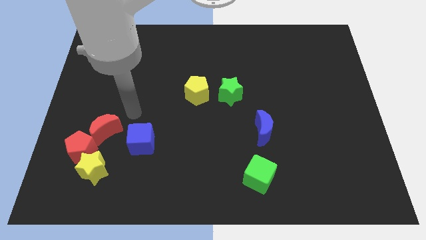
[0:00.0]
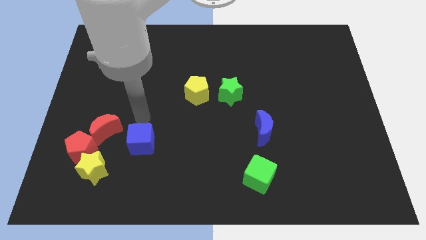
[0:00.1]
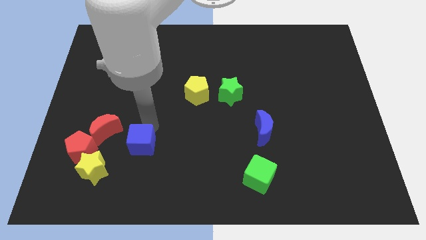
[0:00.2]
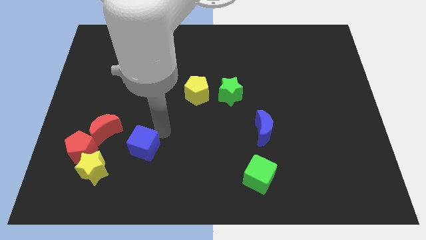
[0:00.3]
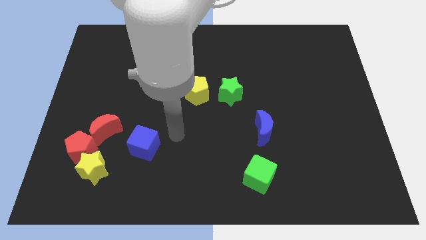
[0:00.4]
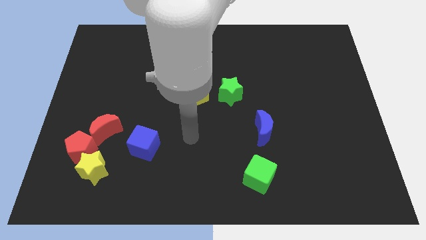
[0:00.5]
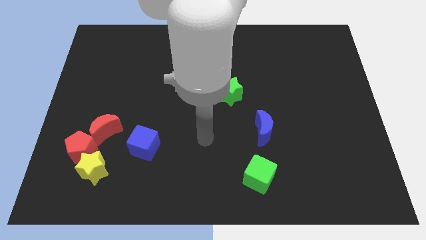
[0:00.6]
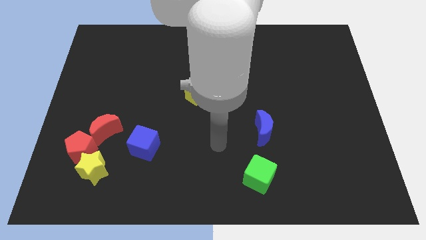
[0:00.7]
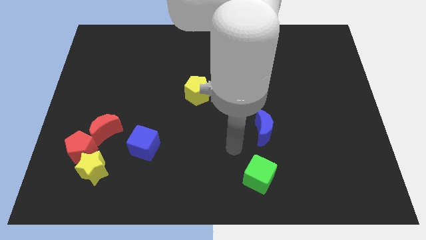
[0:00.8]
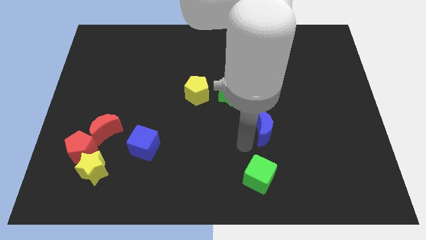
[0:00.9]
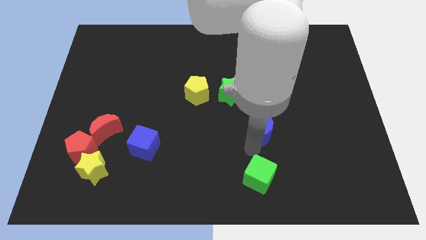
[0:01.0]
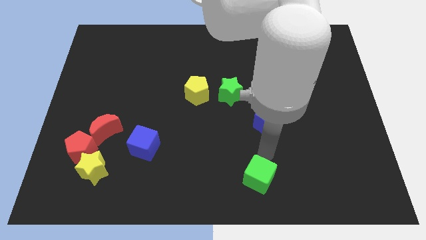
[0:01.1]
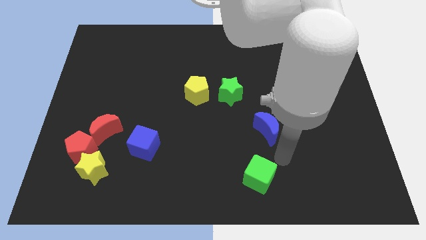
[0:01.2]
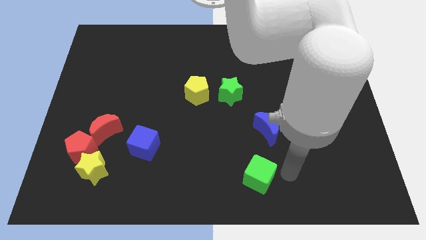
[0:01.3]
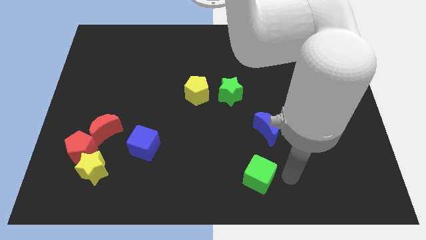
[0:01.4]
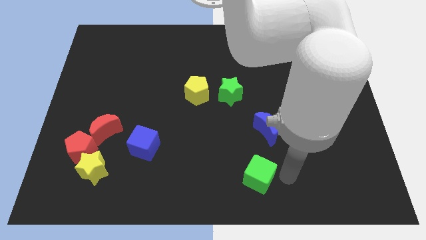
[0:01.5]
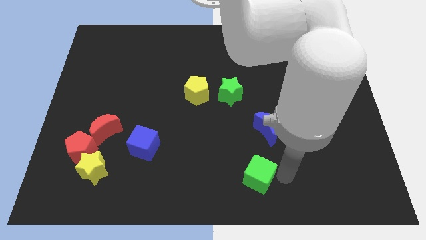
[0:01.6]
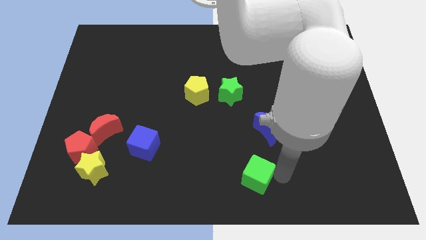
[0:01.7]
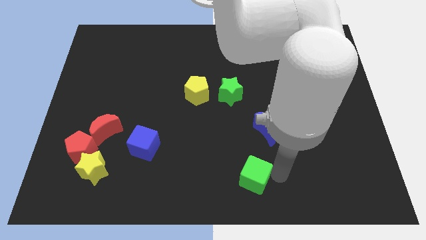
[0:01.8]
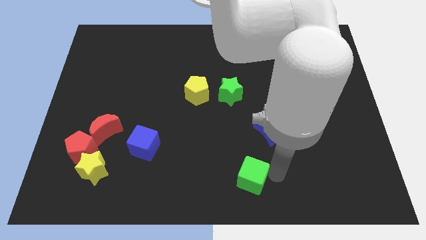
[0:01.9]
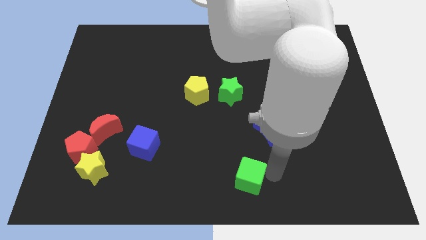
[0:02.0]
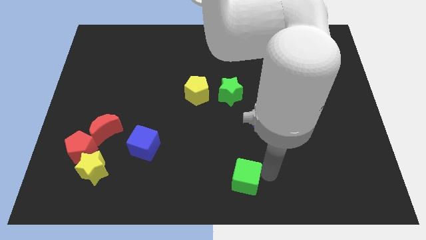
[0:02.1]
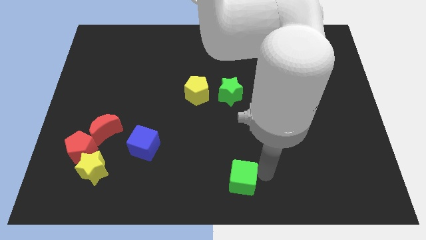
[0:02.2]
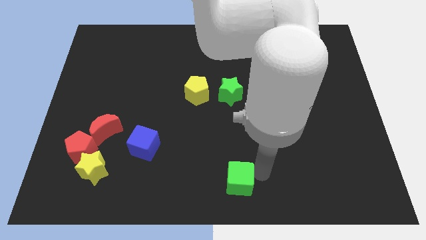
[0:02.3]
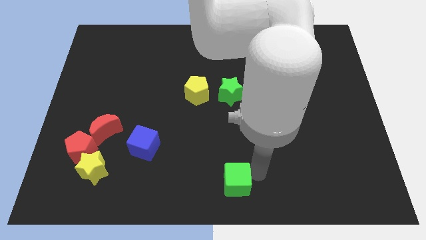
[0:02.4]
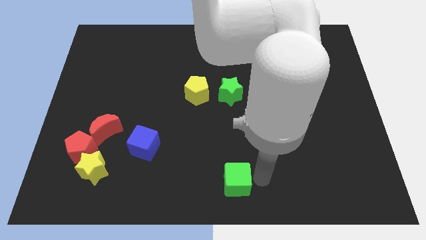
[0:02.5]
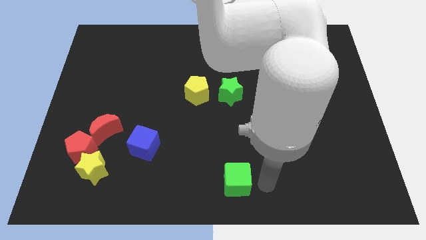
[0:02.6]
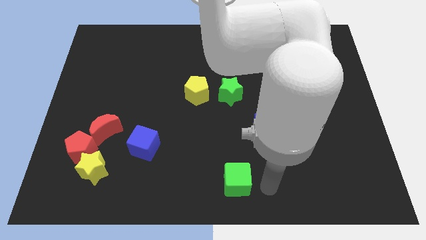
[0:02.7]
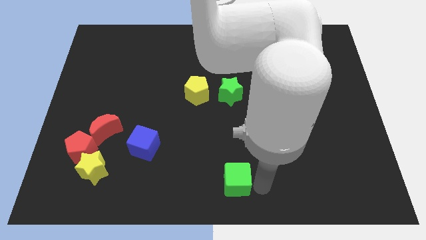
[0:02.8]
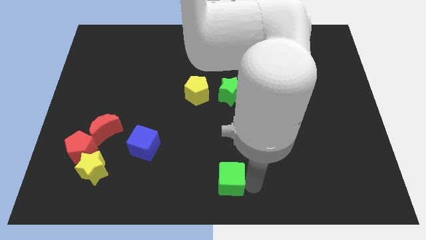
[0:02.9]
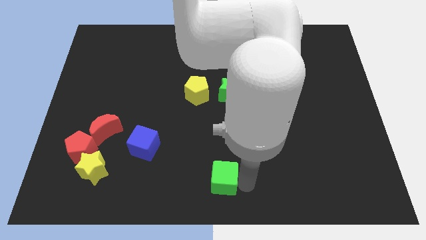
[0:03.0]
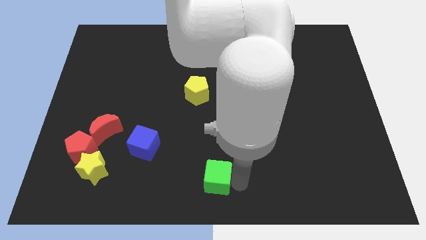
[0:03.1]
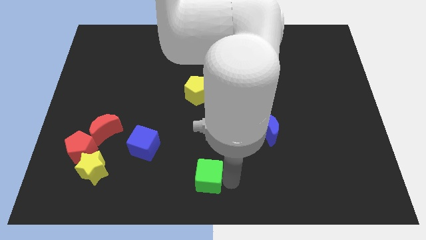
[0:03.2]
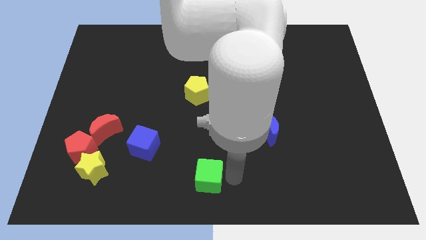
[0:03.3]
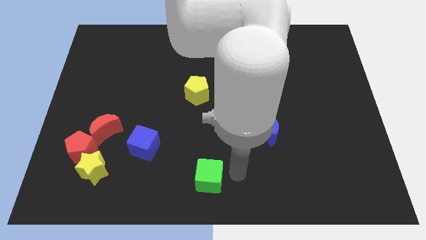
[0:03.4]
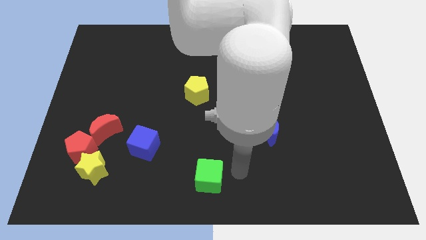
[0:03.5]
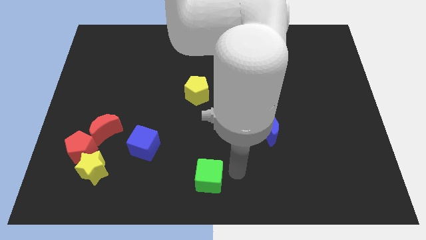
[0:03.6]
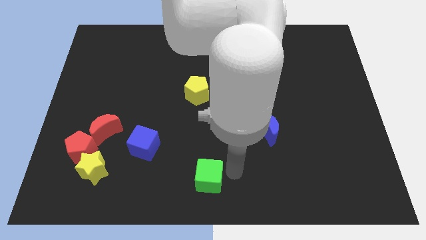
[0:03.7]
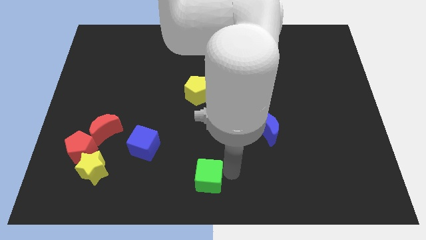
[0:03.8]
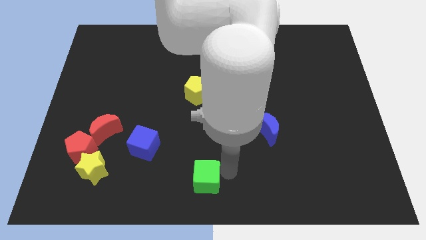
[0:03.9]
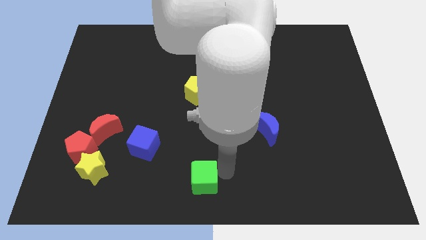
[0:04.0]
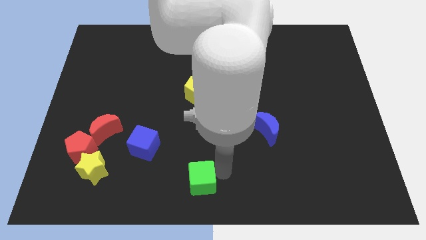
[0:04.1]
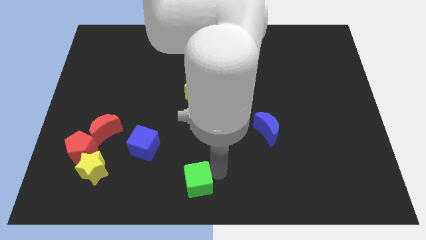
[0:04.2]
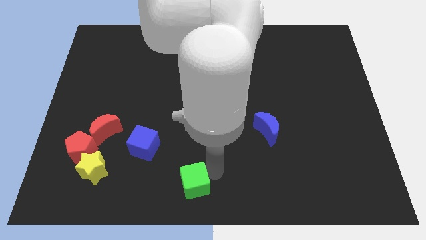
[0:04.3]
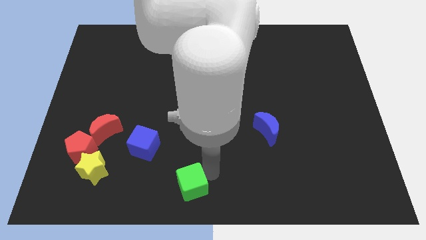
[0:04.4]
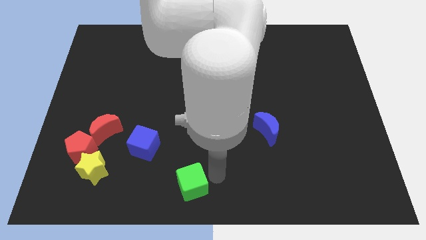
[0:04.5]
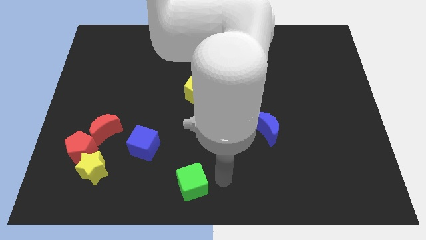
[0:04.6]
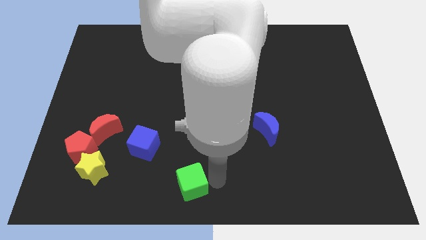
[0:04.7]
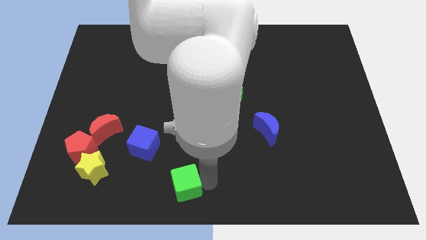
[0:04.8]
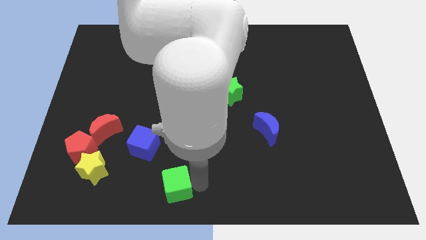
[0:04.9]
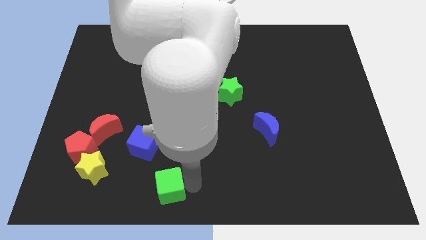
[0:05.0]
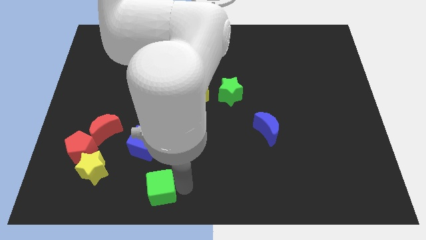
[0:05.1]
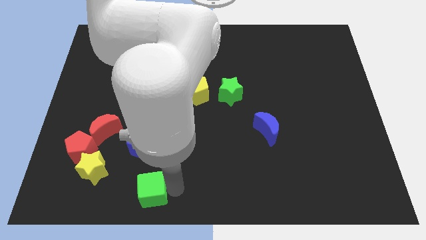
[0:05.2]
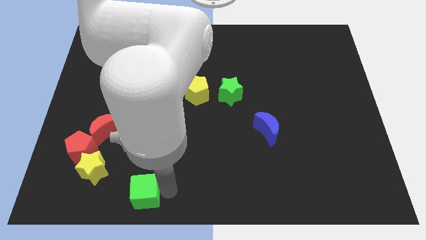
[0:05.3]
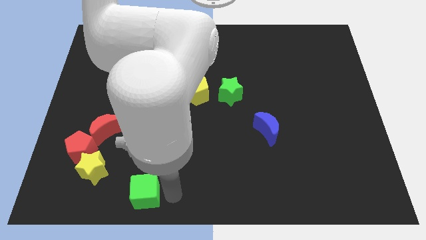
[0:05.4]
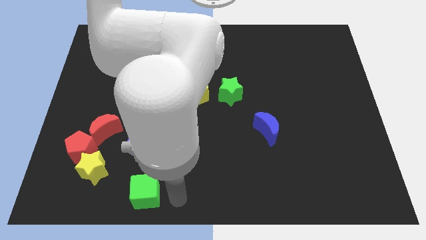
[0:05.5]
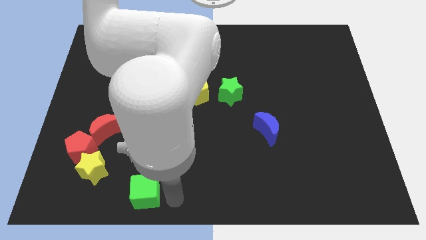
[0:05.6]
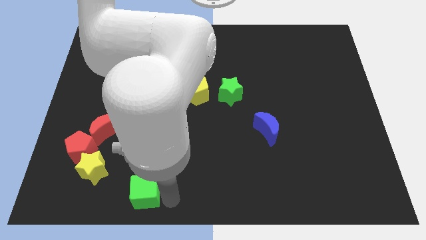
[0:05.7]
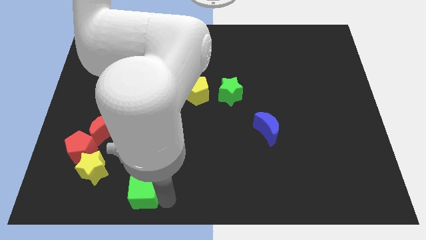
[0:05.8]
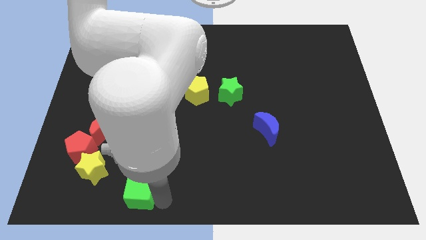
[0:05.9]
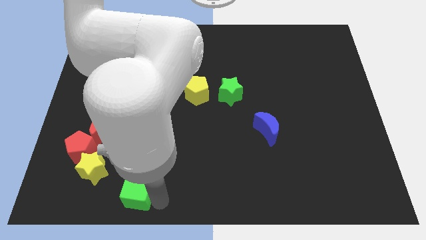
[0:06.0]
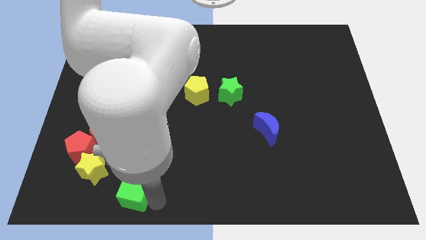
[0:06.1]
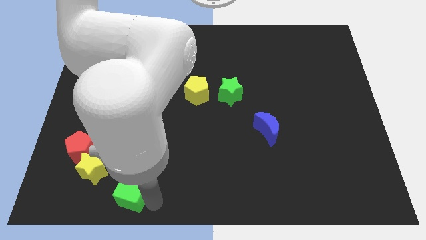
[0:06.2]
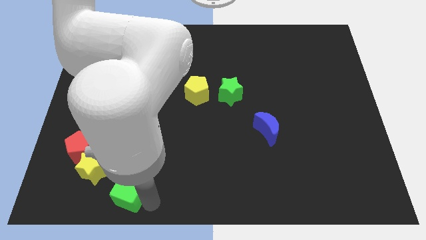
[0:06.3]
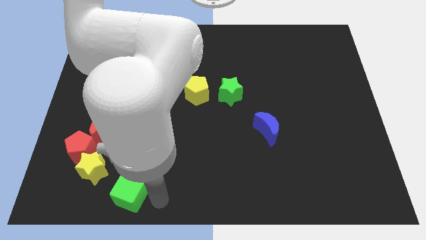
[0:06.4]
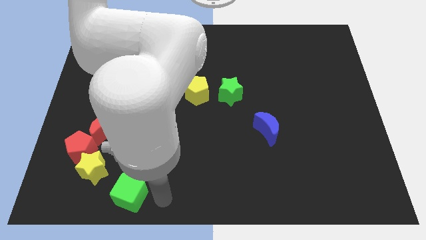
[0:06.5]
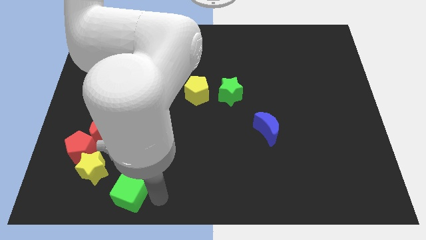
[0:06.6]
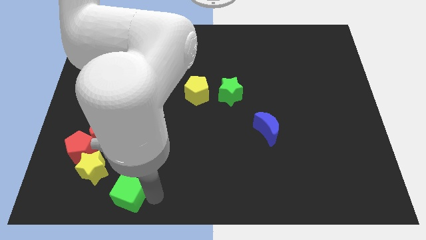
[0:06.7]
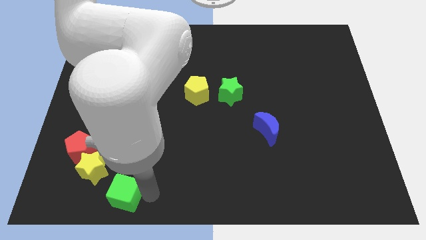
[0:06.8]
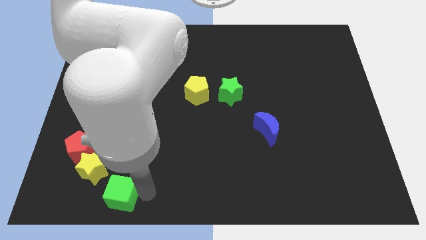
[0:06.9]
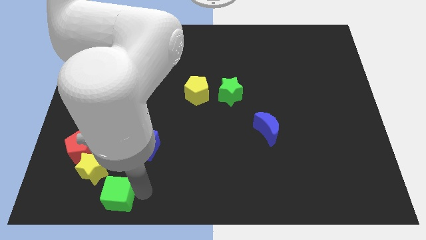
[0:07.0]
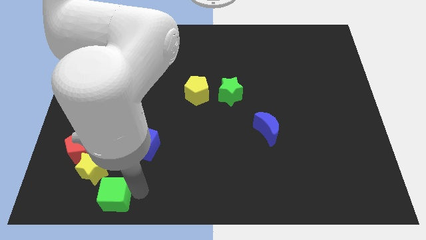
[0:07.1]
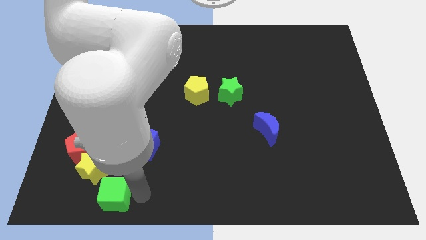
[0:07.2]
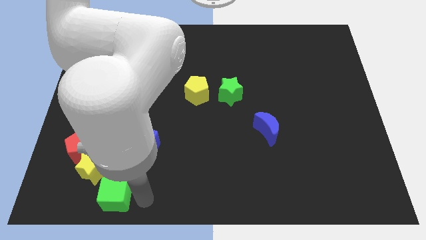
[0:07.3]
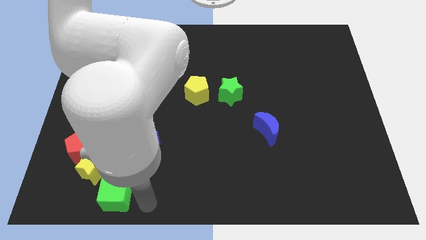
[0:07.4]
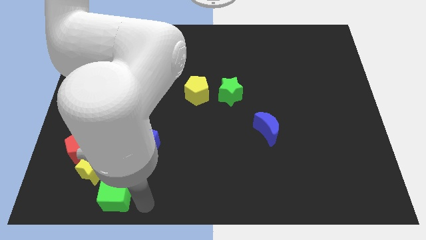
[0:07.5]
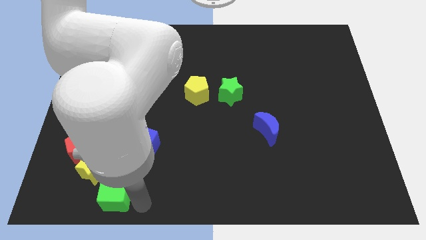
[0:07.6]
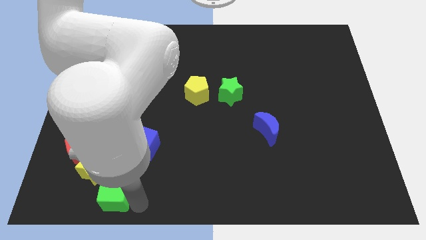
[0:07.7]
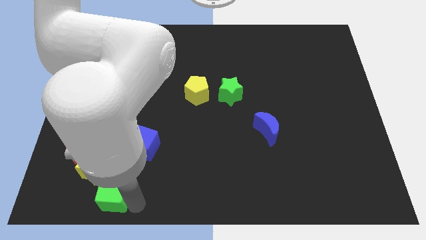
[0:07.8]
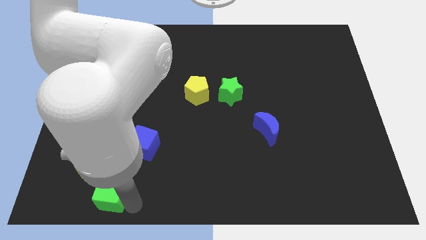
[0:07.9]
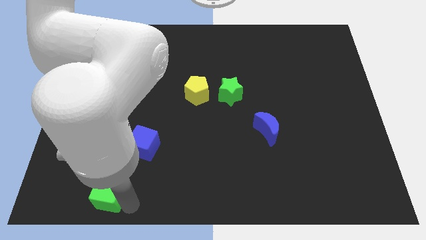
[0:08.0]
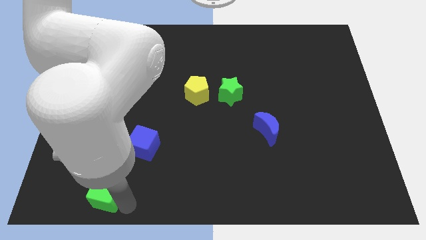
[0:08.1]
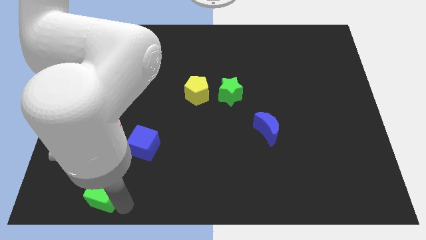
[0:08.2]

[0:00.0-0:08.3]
move the green cube to the bottom of the red moon
